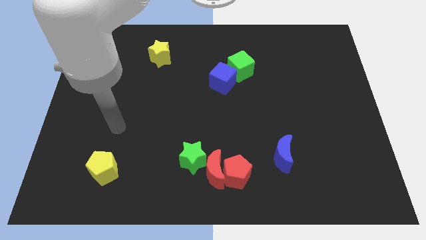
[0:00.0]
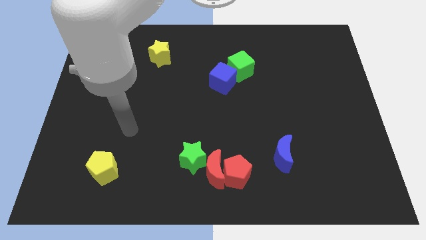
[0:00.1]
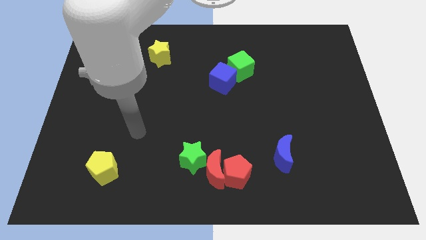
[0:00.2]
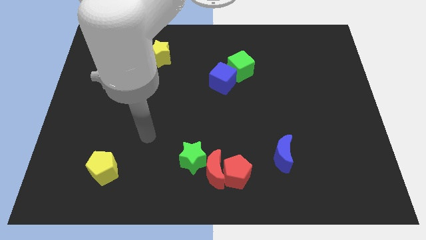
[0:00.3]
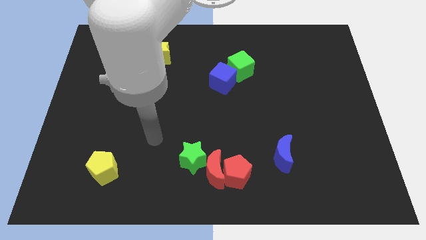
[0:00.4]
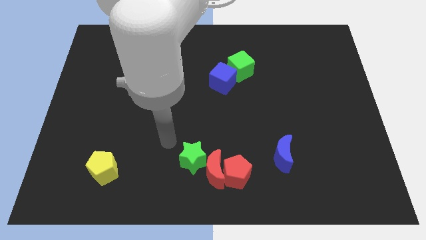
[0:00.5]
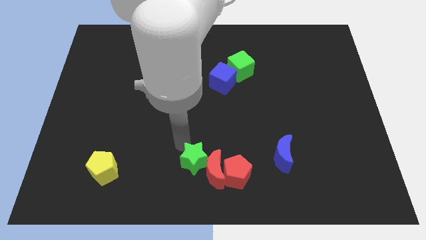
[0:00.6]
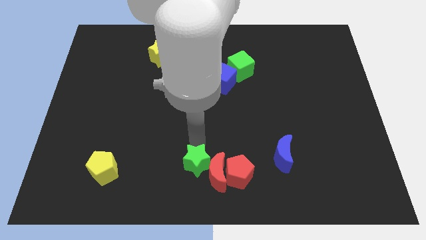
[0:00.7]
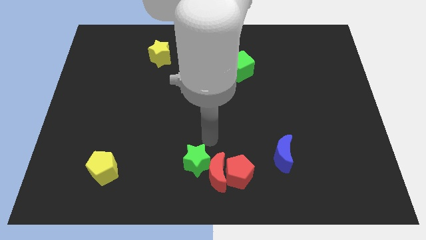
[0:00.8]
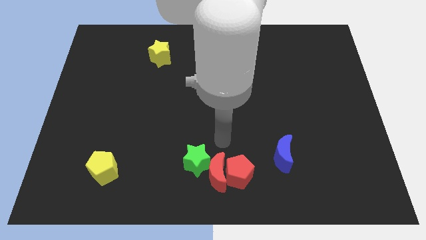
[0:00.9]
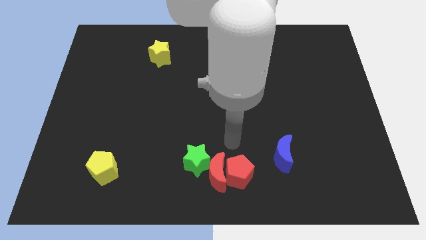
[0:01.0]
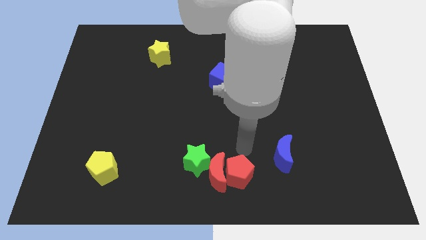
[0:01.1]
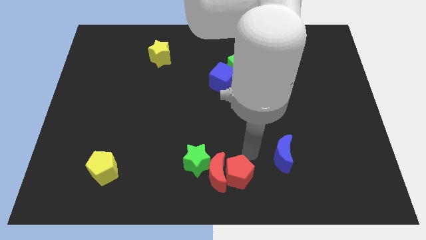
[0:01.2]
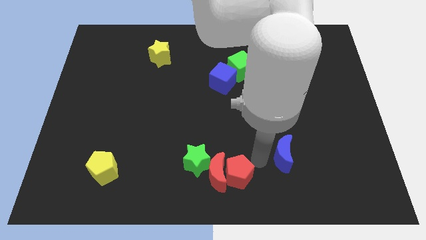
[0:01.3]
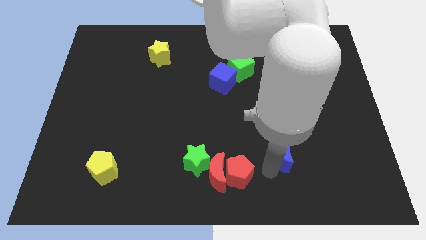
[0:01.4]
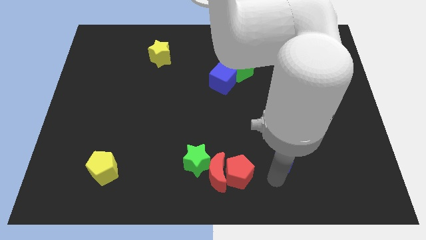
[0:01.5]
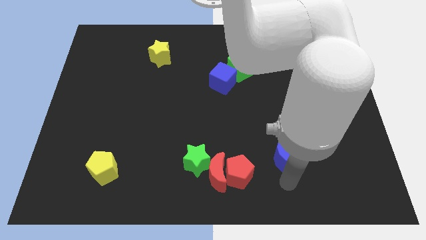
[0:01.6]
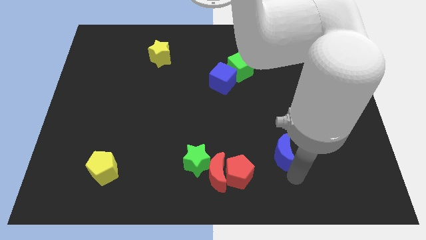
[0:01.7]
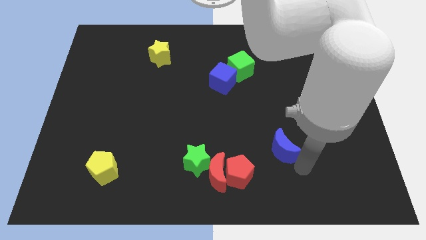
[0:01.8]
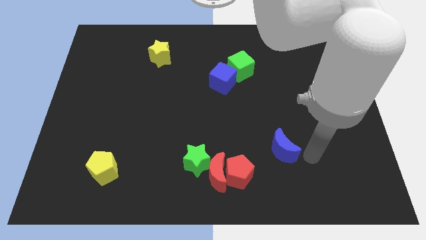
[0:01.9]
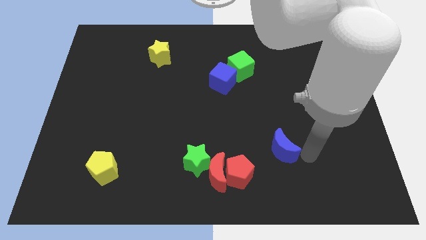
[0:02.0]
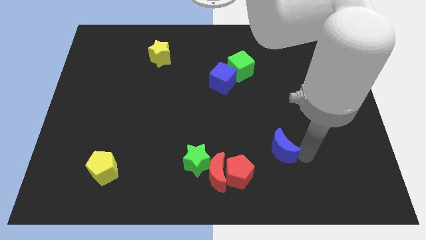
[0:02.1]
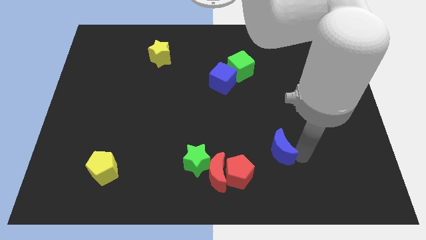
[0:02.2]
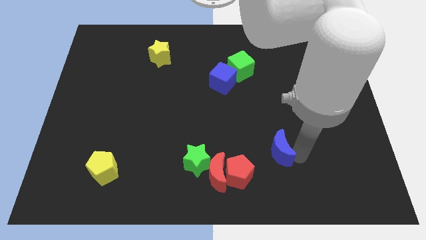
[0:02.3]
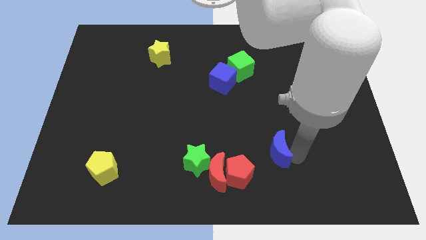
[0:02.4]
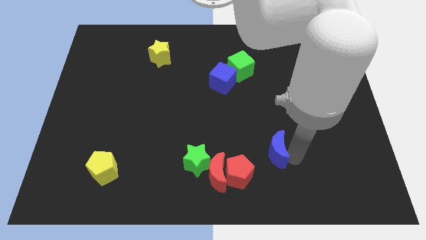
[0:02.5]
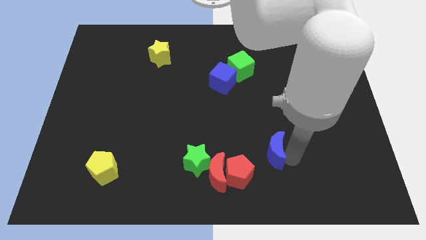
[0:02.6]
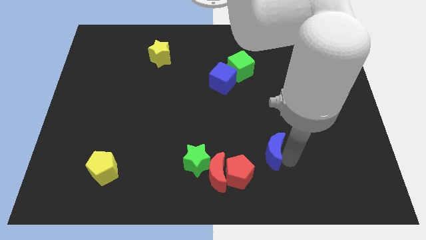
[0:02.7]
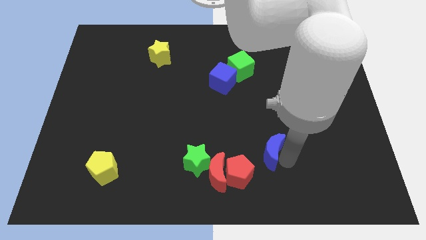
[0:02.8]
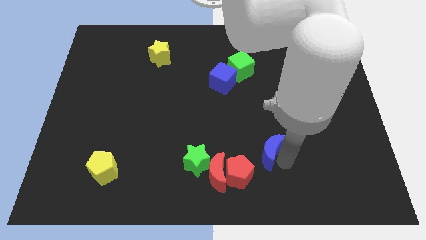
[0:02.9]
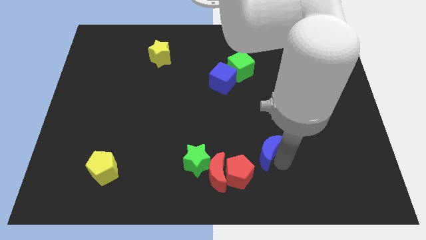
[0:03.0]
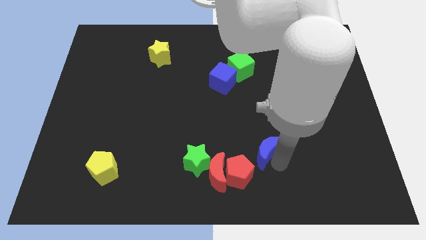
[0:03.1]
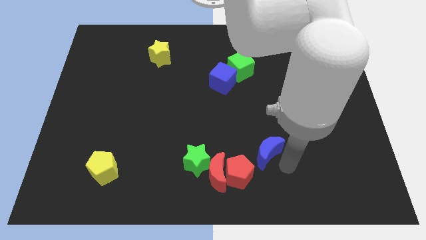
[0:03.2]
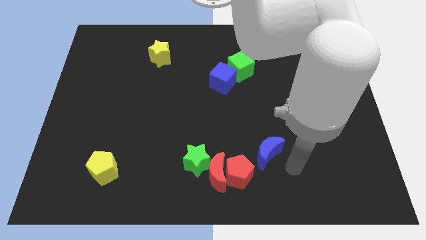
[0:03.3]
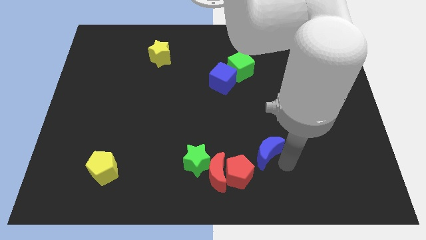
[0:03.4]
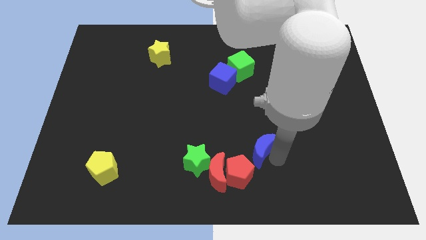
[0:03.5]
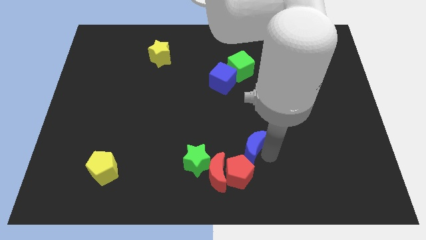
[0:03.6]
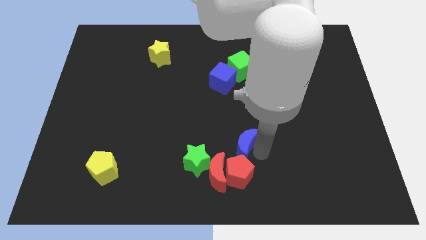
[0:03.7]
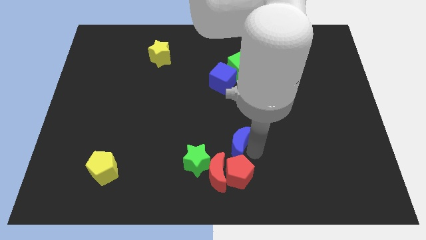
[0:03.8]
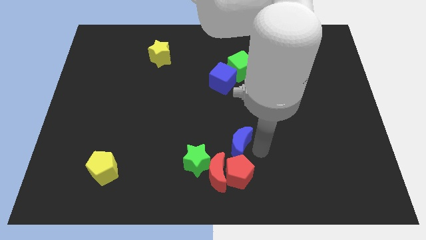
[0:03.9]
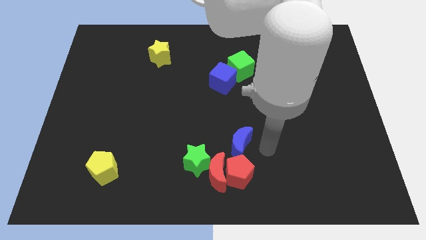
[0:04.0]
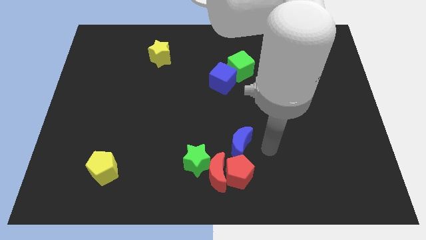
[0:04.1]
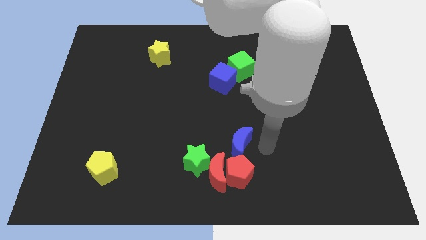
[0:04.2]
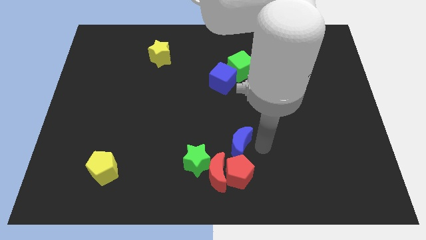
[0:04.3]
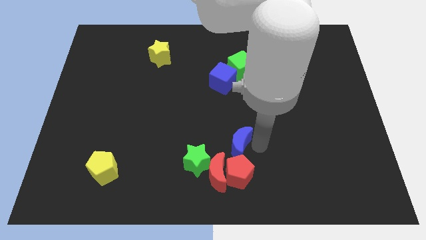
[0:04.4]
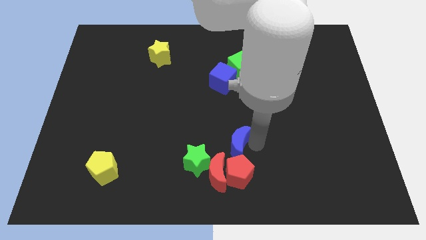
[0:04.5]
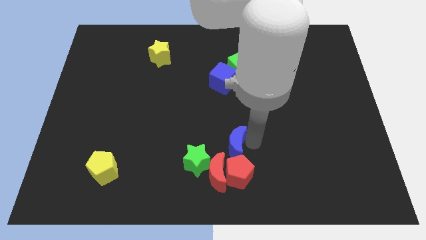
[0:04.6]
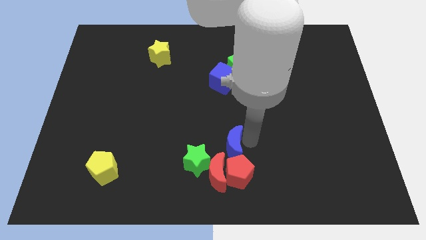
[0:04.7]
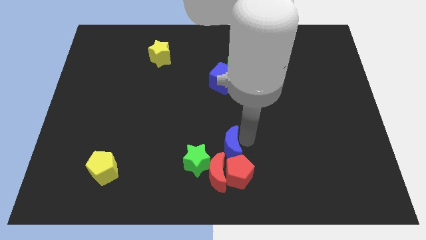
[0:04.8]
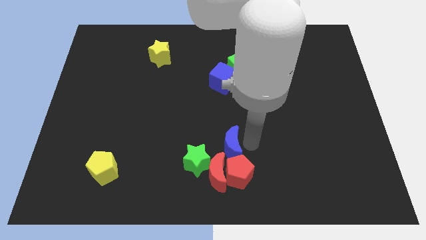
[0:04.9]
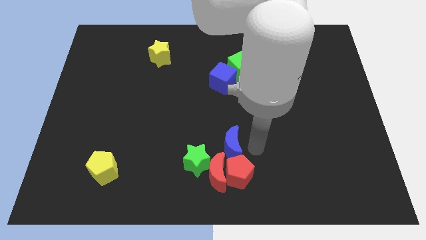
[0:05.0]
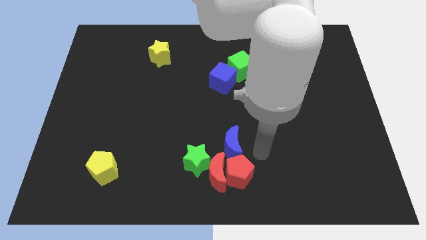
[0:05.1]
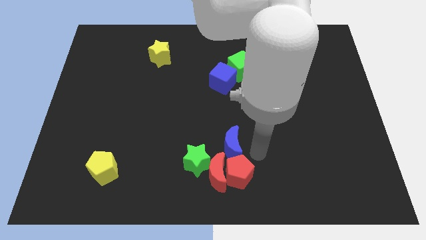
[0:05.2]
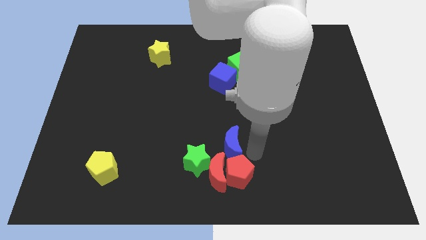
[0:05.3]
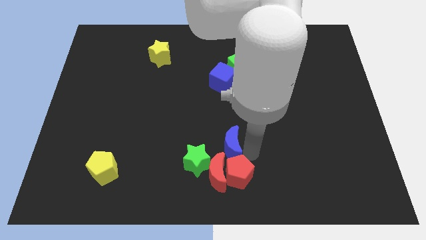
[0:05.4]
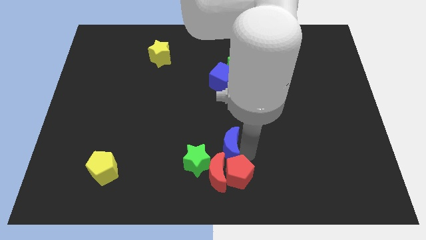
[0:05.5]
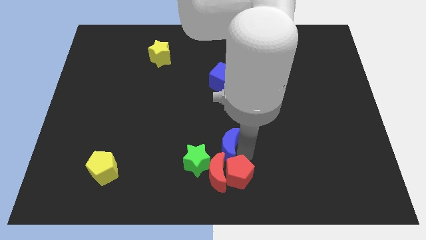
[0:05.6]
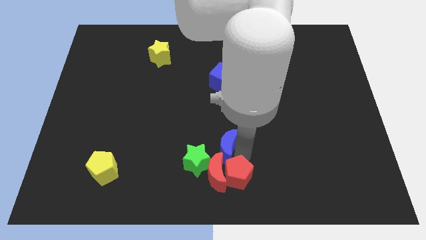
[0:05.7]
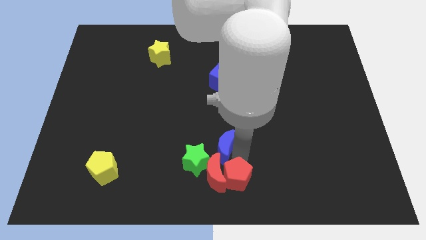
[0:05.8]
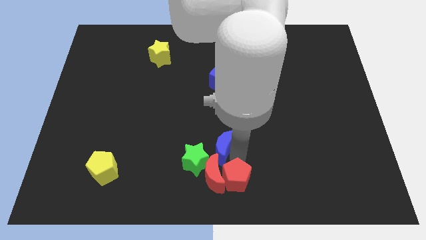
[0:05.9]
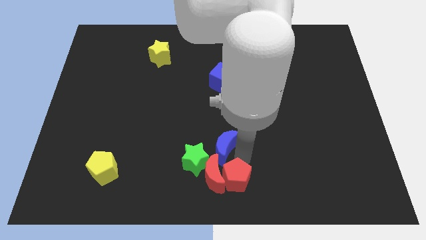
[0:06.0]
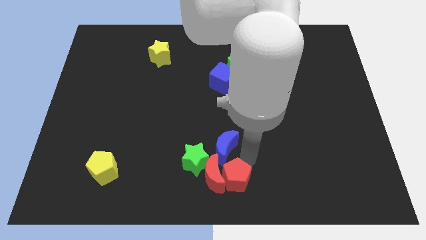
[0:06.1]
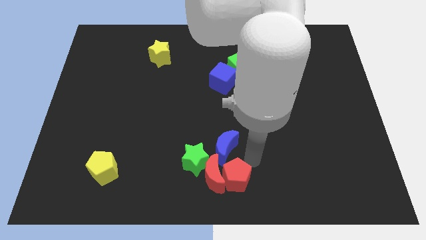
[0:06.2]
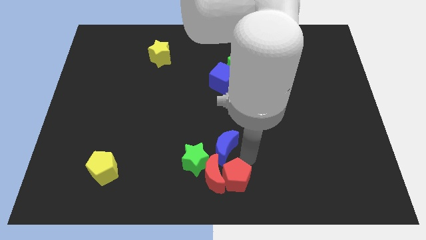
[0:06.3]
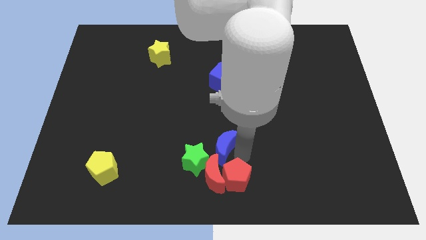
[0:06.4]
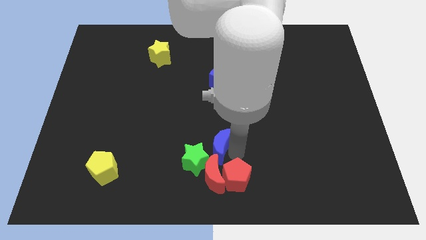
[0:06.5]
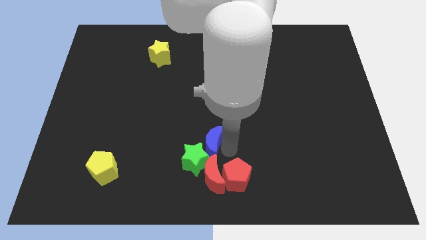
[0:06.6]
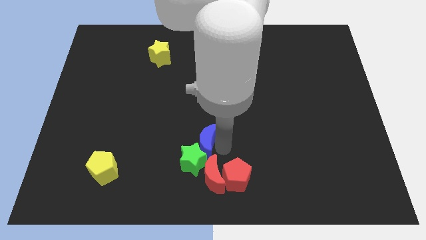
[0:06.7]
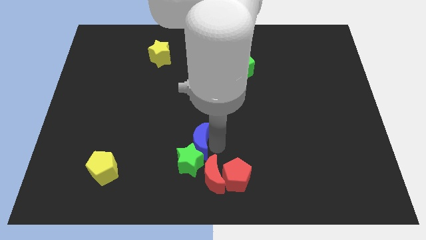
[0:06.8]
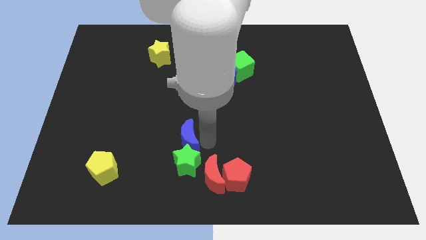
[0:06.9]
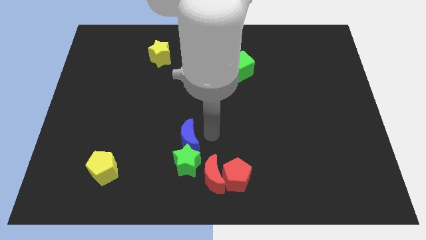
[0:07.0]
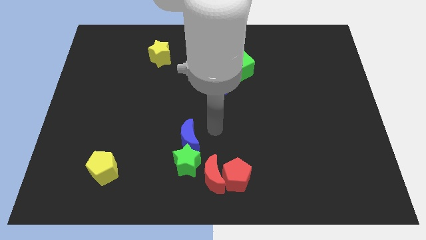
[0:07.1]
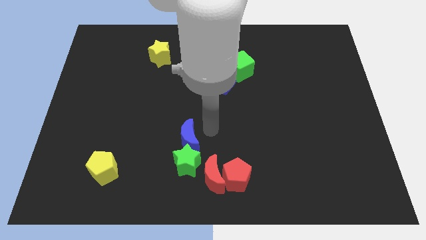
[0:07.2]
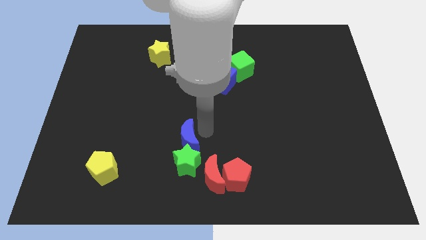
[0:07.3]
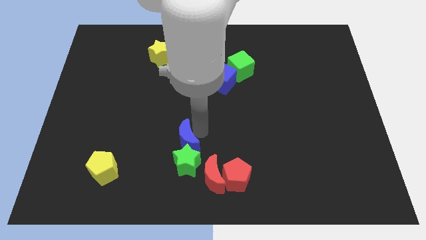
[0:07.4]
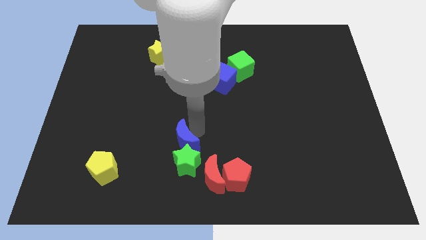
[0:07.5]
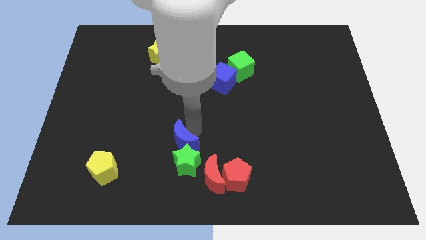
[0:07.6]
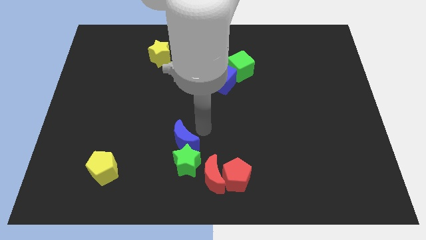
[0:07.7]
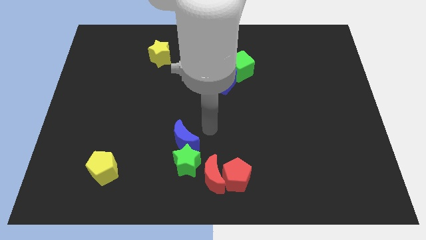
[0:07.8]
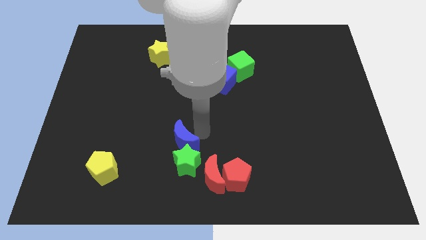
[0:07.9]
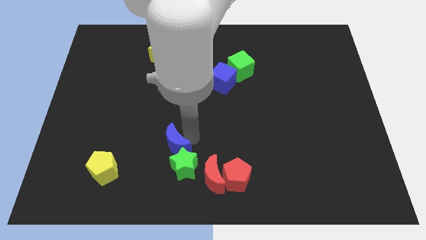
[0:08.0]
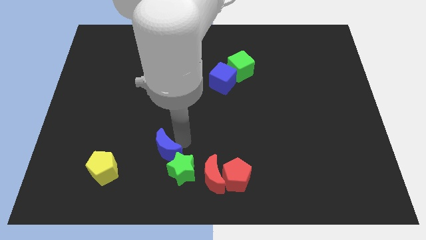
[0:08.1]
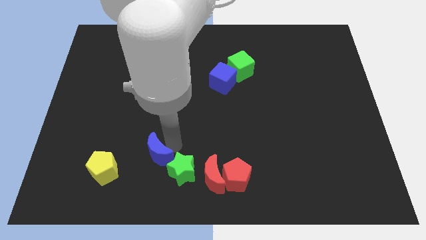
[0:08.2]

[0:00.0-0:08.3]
move the blue moon to the left side of the green star
